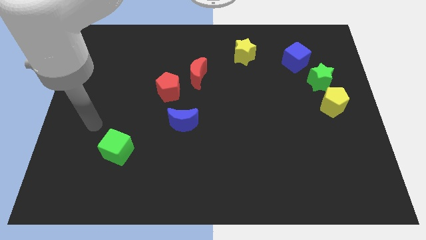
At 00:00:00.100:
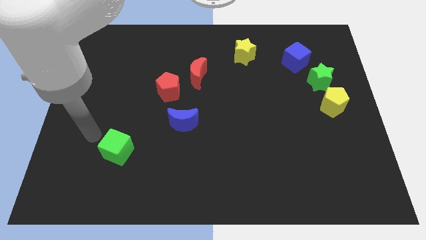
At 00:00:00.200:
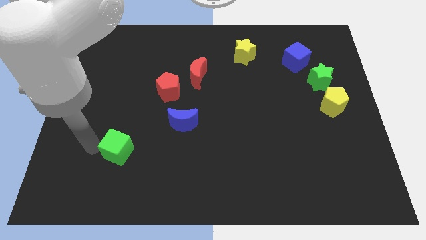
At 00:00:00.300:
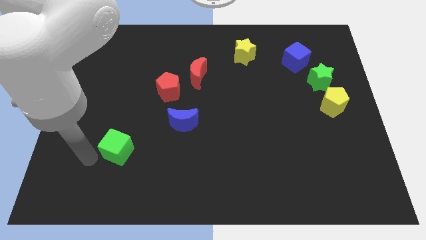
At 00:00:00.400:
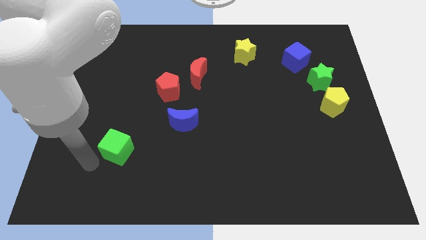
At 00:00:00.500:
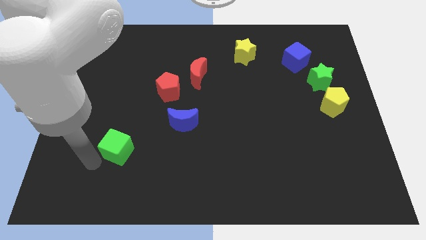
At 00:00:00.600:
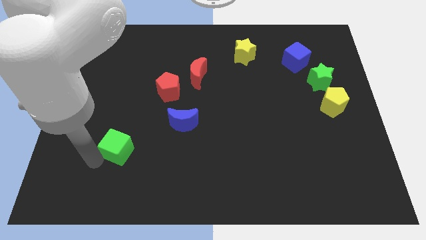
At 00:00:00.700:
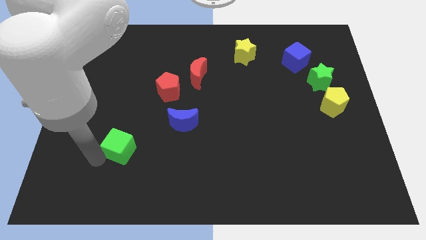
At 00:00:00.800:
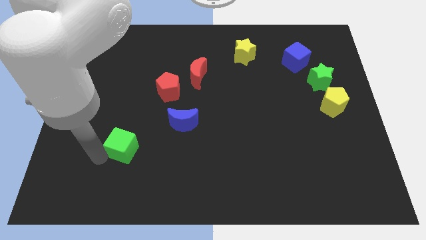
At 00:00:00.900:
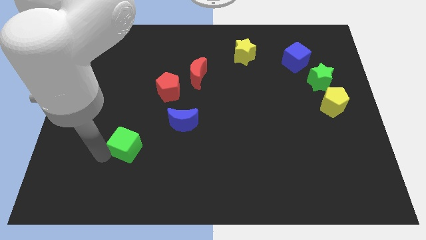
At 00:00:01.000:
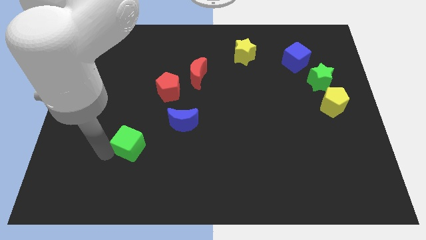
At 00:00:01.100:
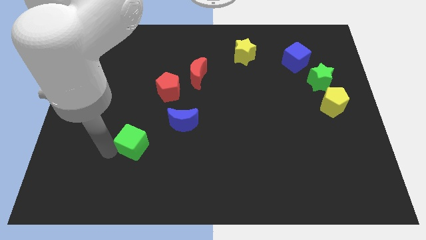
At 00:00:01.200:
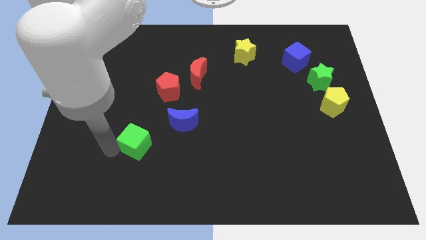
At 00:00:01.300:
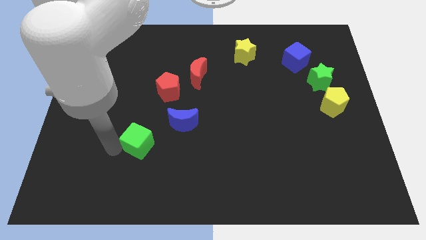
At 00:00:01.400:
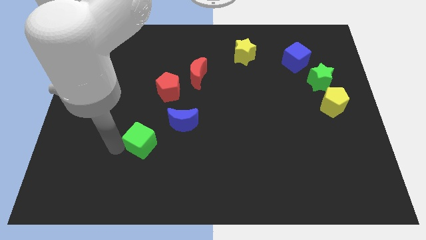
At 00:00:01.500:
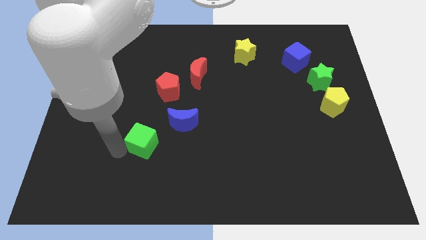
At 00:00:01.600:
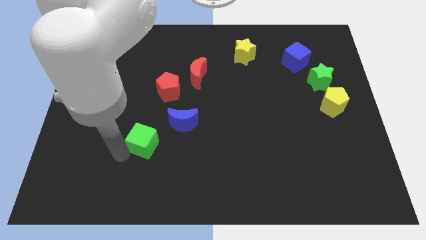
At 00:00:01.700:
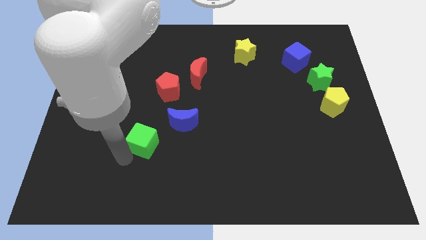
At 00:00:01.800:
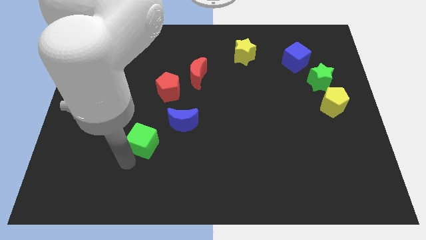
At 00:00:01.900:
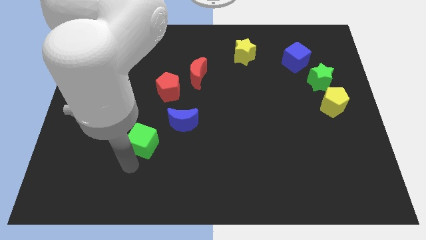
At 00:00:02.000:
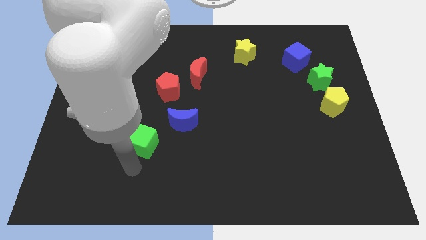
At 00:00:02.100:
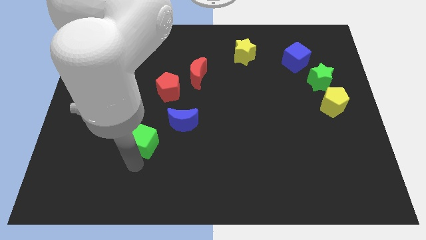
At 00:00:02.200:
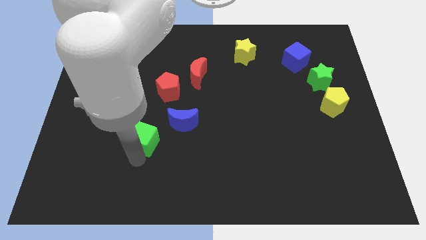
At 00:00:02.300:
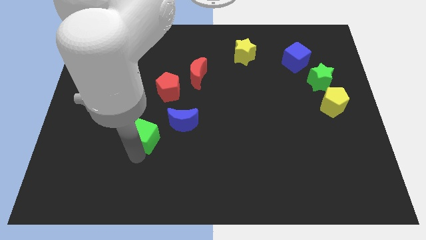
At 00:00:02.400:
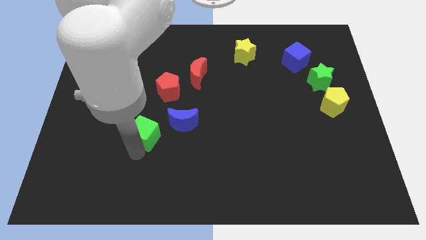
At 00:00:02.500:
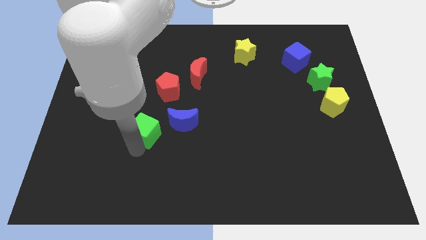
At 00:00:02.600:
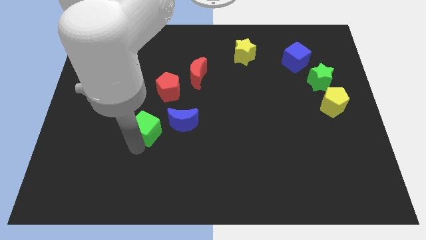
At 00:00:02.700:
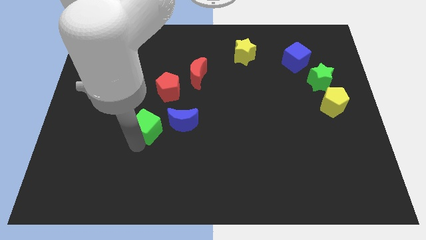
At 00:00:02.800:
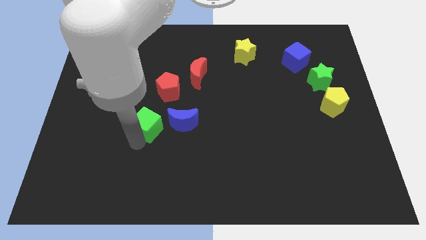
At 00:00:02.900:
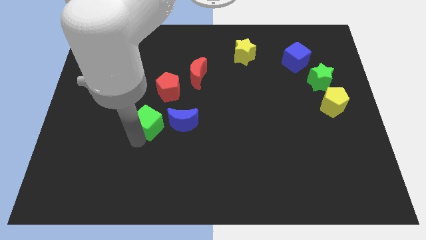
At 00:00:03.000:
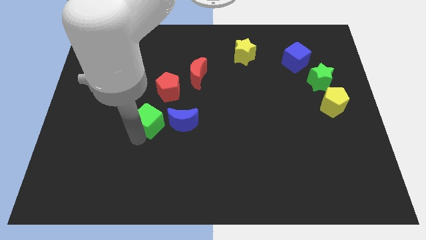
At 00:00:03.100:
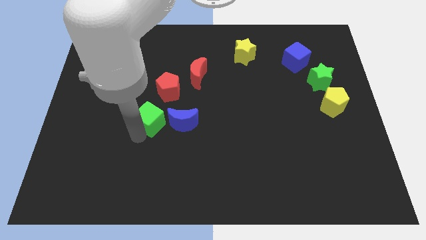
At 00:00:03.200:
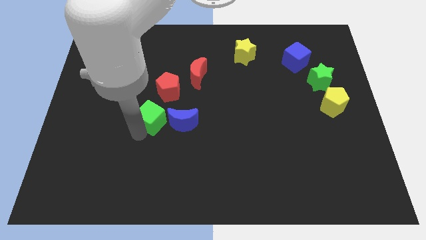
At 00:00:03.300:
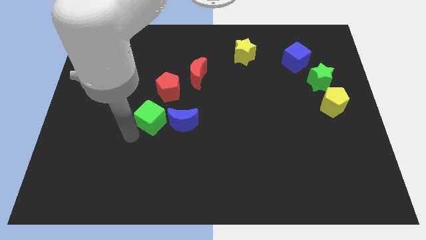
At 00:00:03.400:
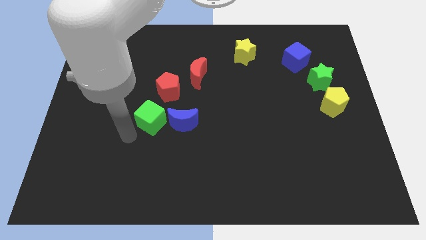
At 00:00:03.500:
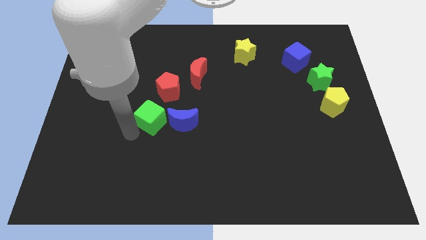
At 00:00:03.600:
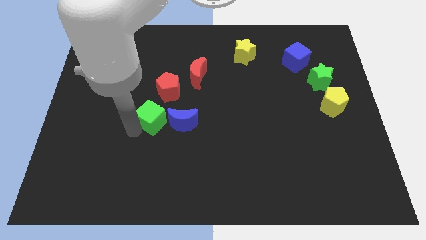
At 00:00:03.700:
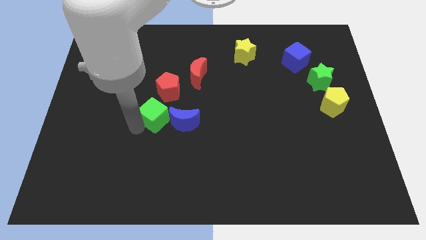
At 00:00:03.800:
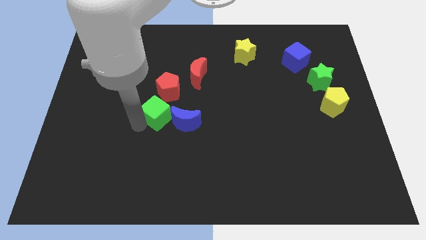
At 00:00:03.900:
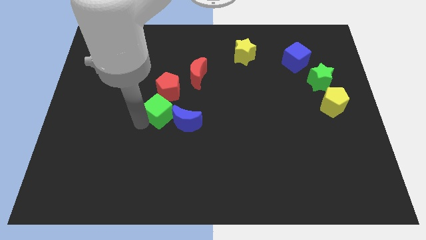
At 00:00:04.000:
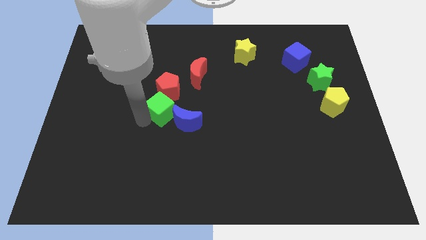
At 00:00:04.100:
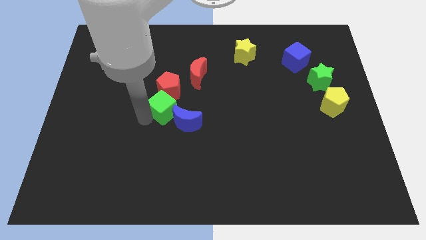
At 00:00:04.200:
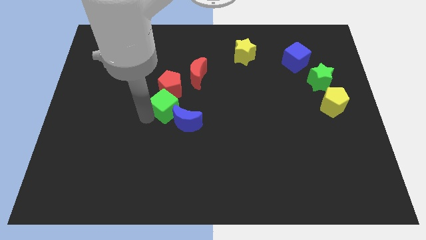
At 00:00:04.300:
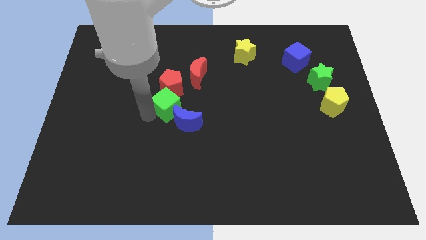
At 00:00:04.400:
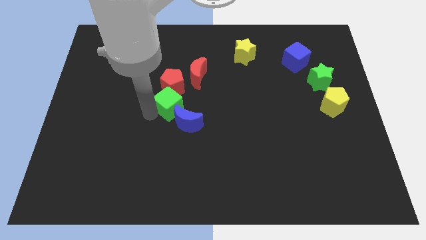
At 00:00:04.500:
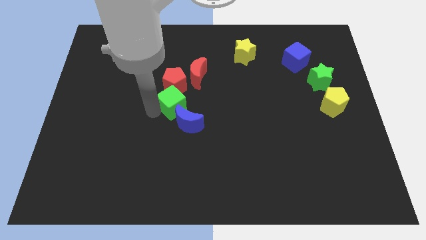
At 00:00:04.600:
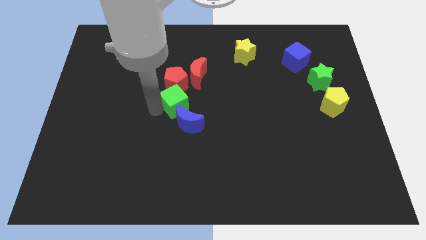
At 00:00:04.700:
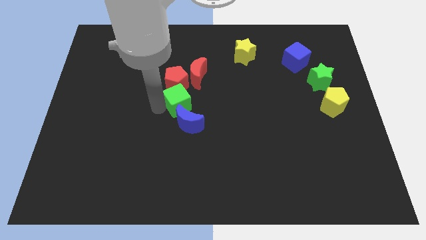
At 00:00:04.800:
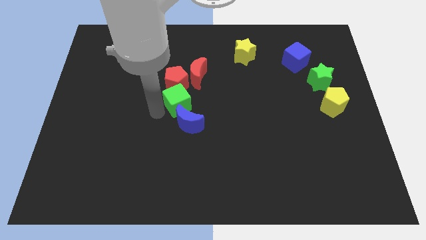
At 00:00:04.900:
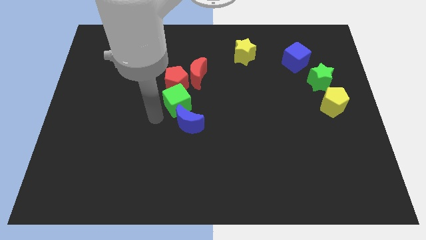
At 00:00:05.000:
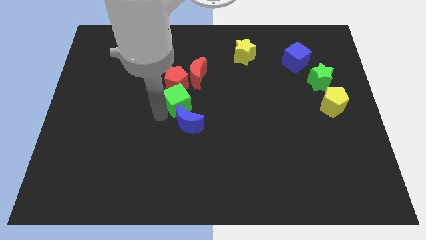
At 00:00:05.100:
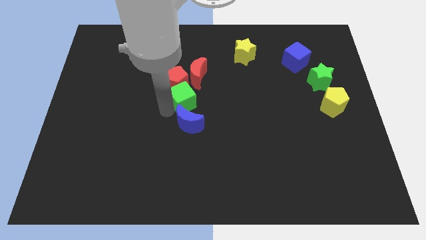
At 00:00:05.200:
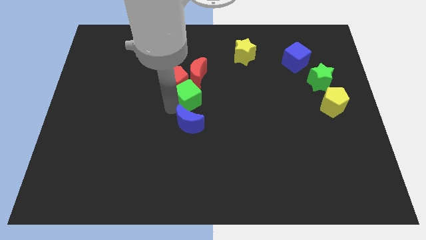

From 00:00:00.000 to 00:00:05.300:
slide the green cube upwards and right

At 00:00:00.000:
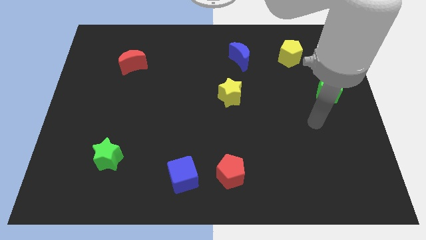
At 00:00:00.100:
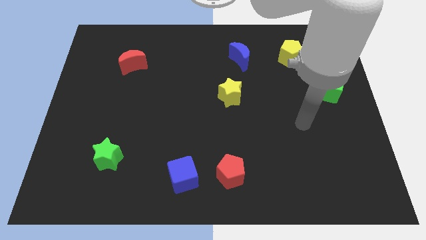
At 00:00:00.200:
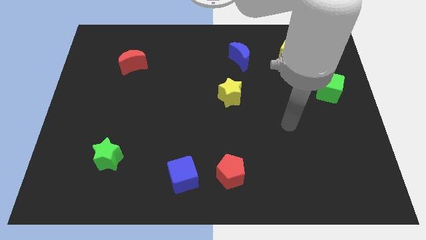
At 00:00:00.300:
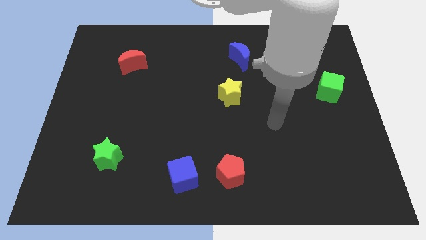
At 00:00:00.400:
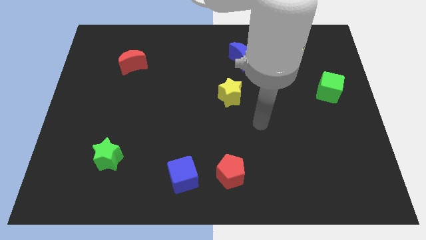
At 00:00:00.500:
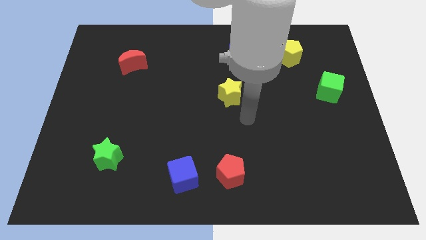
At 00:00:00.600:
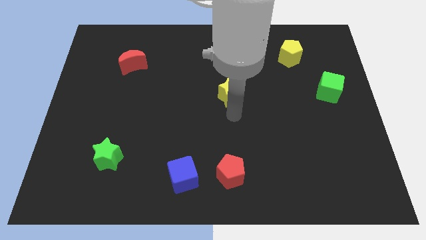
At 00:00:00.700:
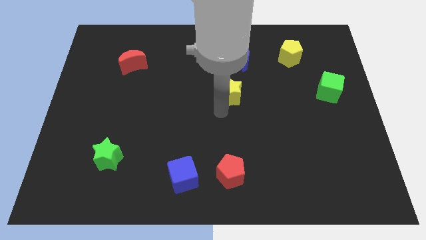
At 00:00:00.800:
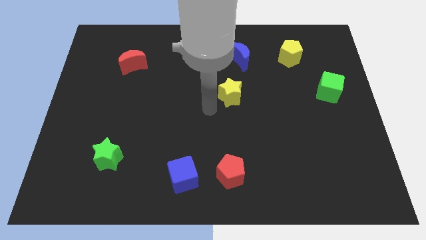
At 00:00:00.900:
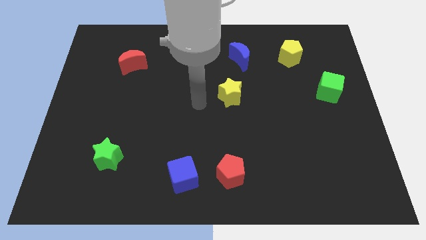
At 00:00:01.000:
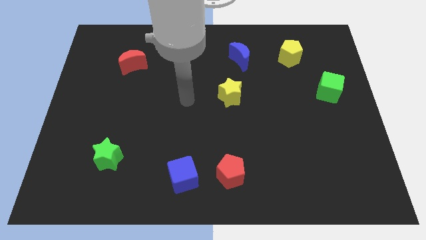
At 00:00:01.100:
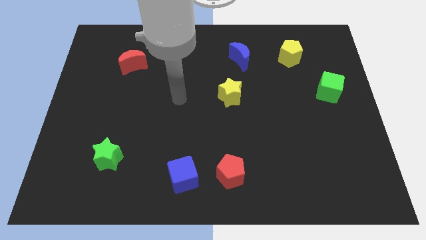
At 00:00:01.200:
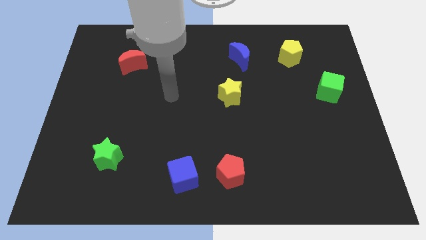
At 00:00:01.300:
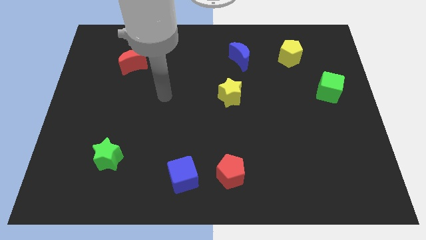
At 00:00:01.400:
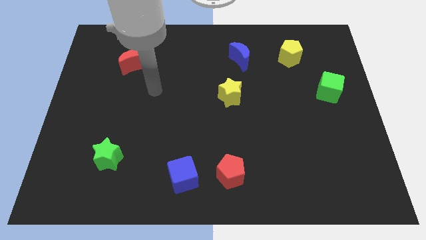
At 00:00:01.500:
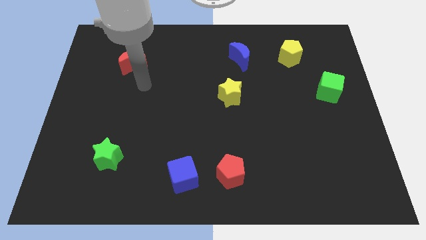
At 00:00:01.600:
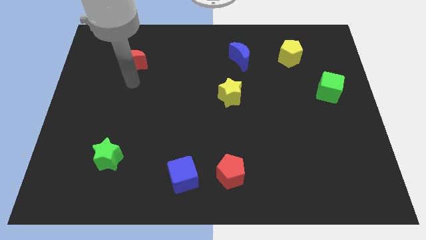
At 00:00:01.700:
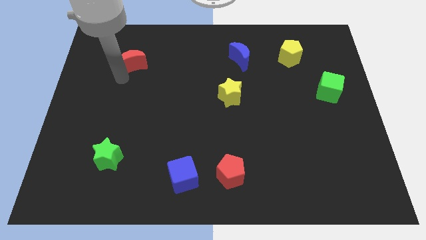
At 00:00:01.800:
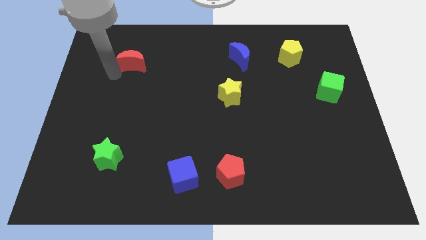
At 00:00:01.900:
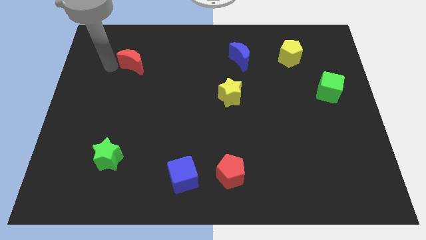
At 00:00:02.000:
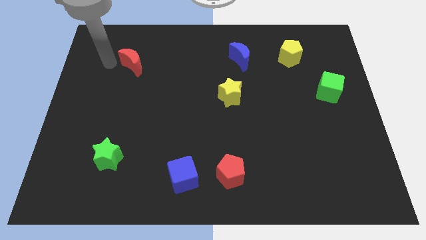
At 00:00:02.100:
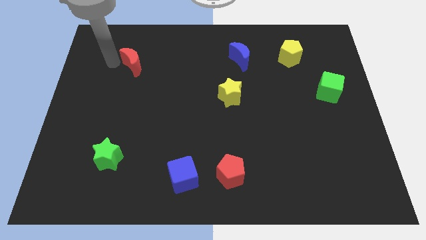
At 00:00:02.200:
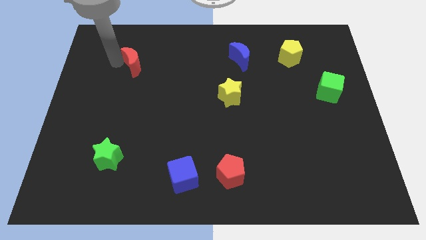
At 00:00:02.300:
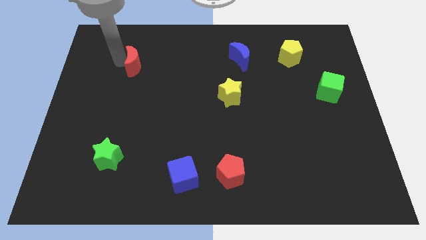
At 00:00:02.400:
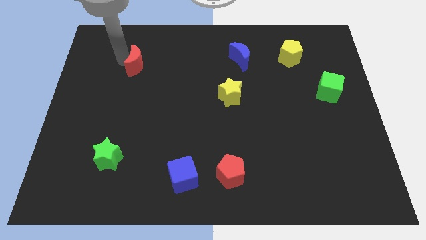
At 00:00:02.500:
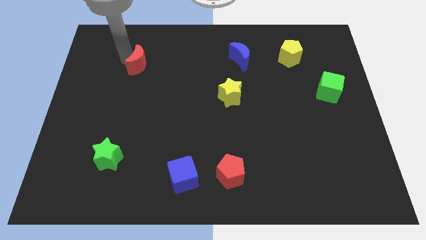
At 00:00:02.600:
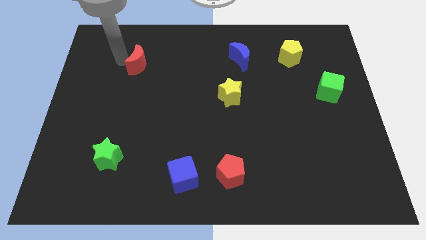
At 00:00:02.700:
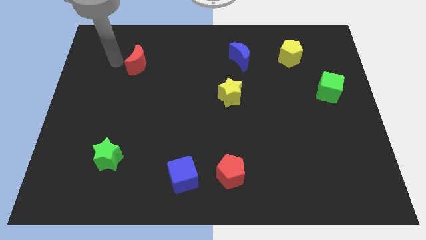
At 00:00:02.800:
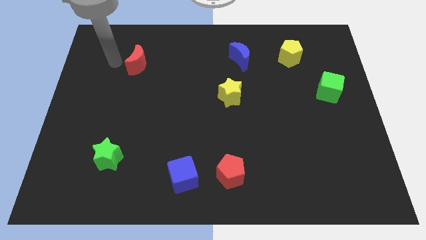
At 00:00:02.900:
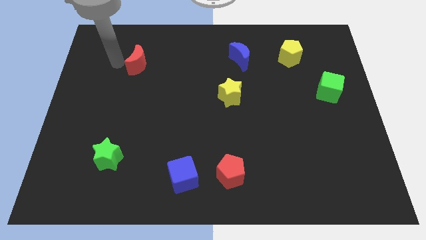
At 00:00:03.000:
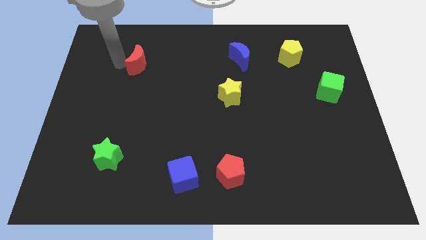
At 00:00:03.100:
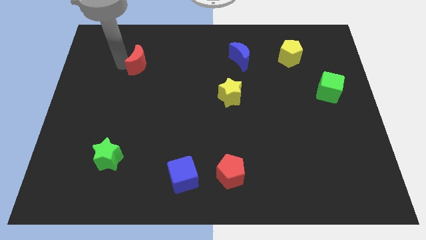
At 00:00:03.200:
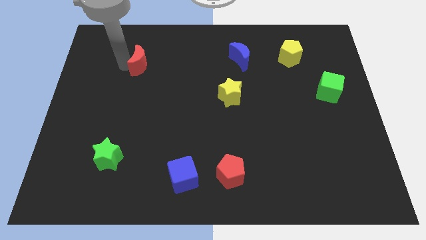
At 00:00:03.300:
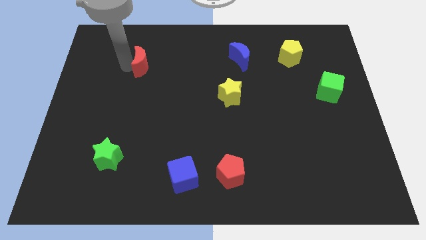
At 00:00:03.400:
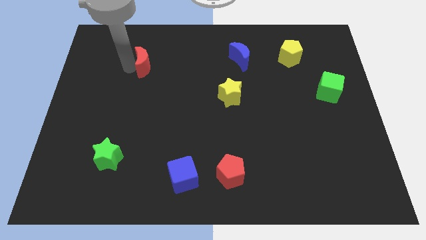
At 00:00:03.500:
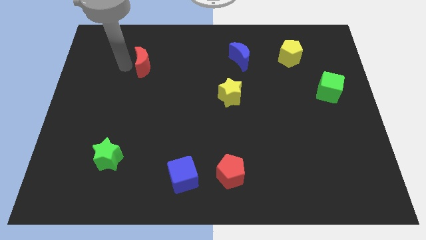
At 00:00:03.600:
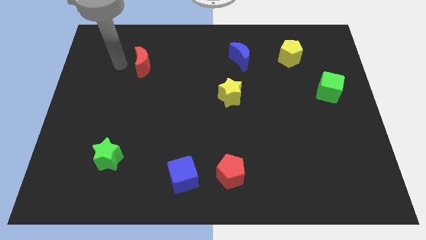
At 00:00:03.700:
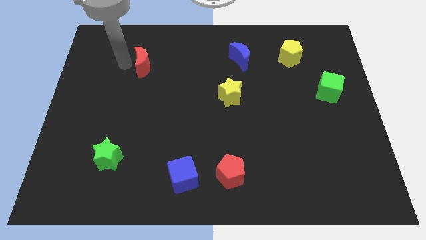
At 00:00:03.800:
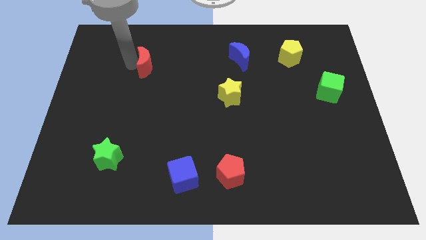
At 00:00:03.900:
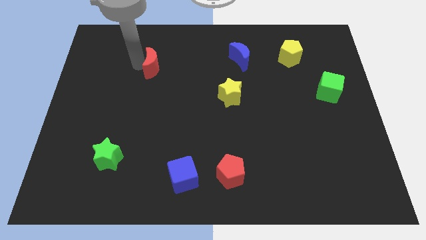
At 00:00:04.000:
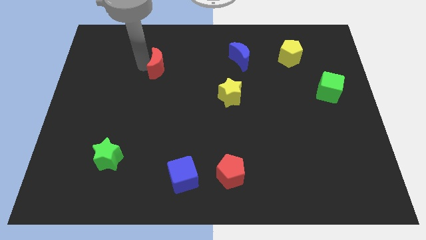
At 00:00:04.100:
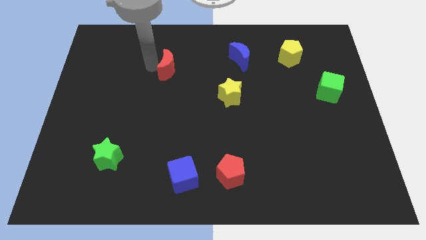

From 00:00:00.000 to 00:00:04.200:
slide the red moon somewhat right
